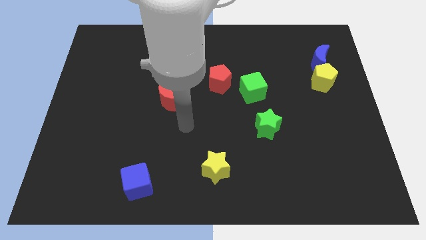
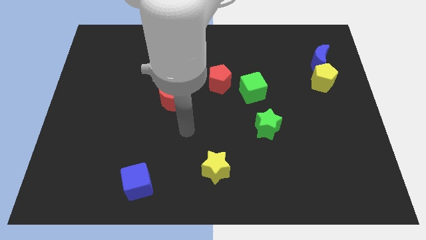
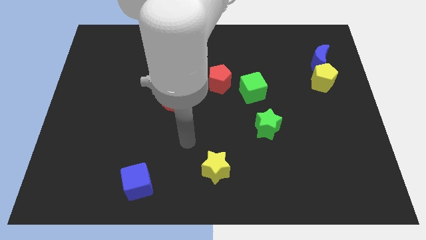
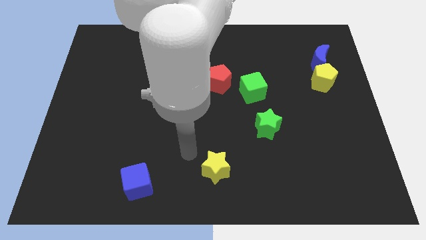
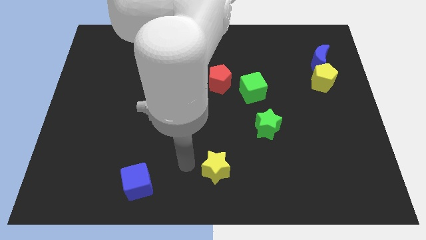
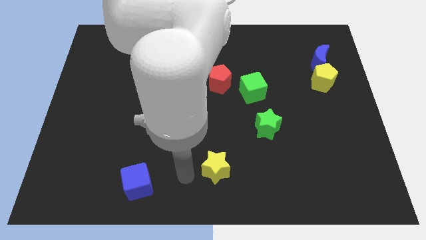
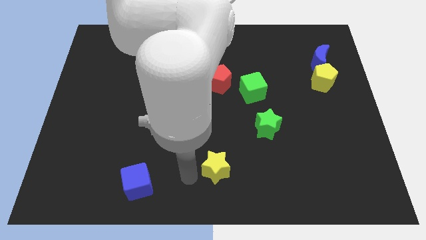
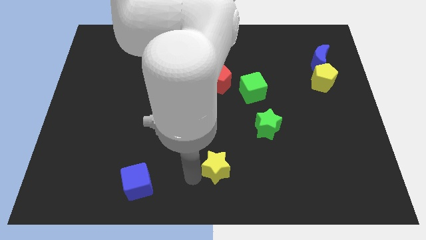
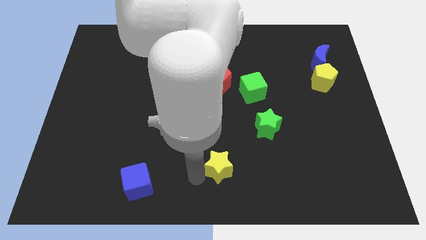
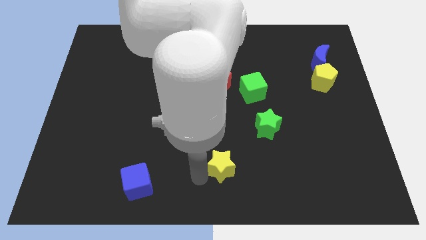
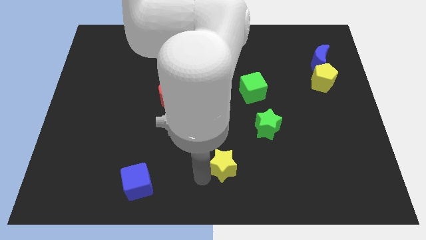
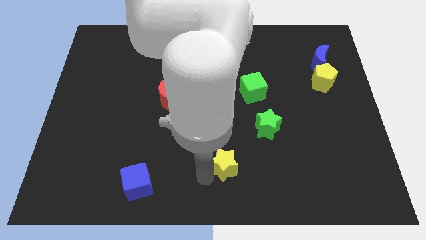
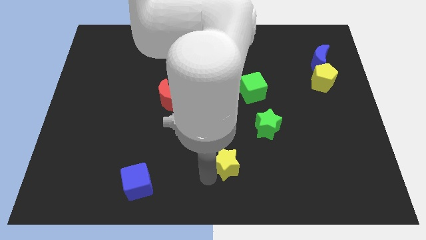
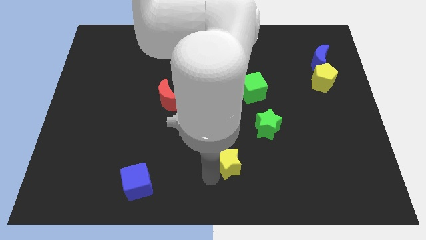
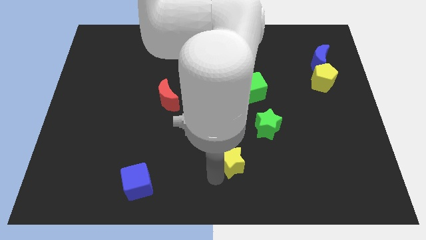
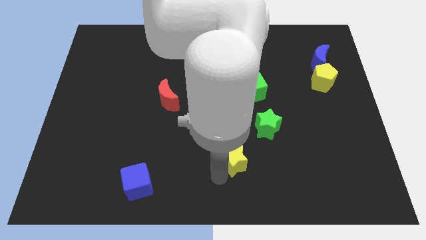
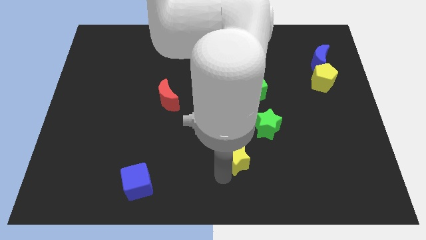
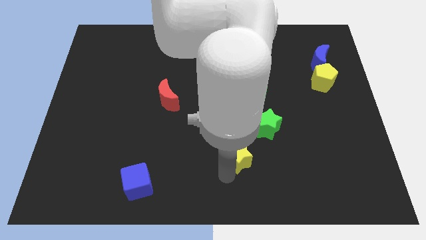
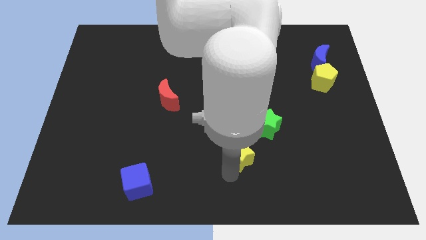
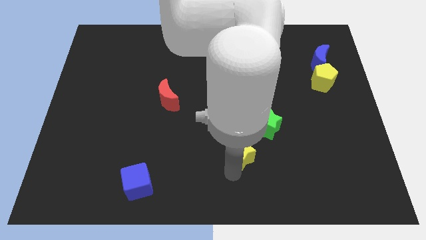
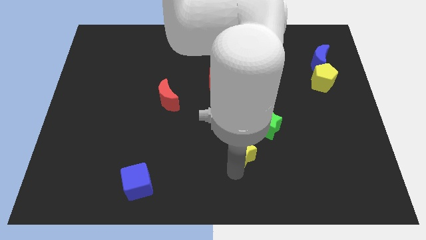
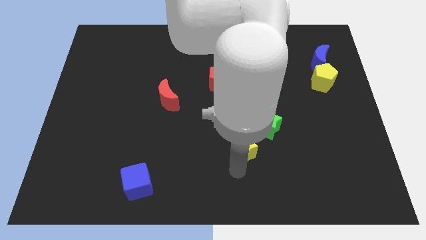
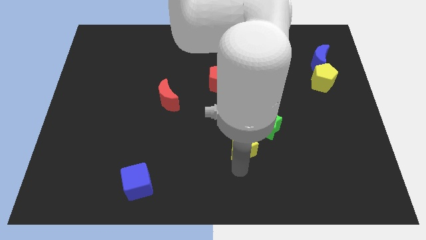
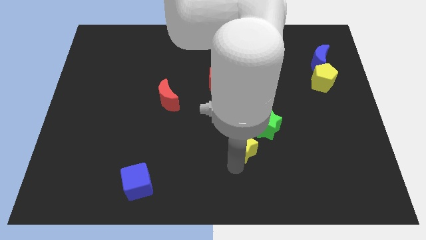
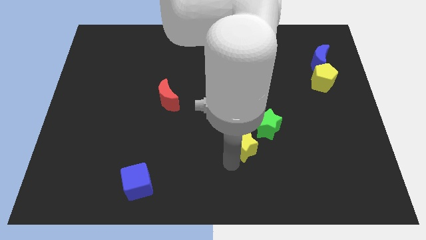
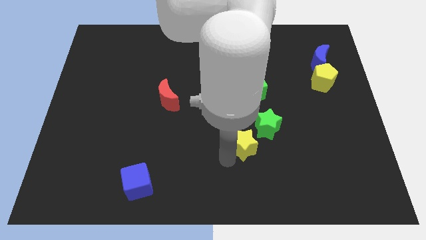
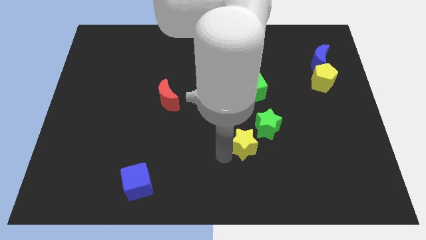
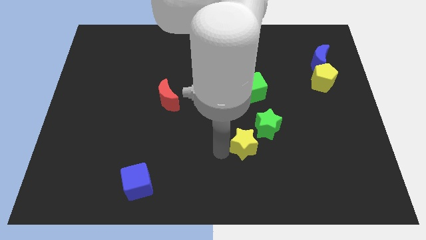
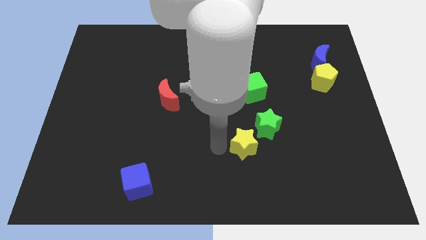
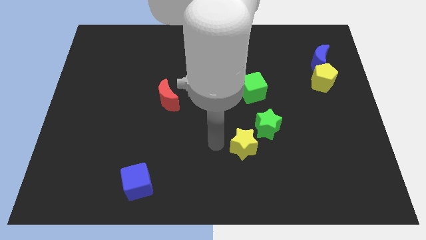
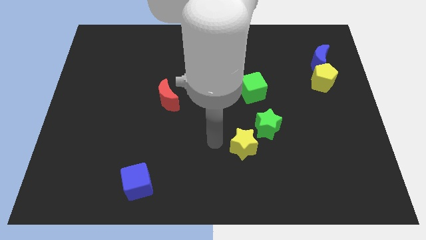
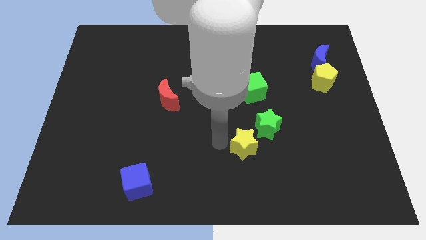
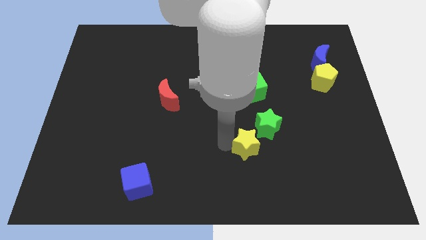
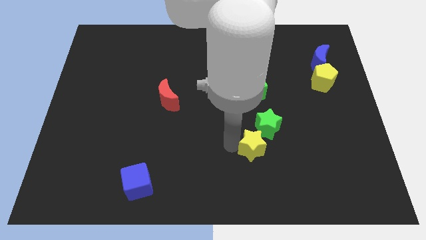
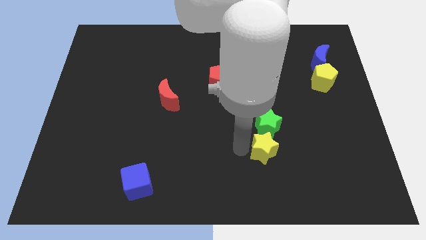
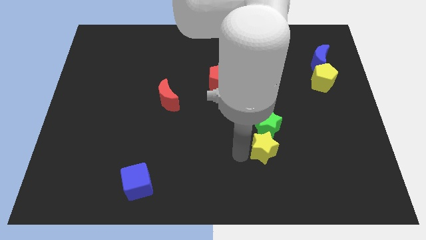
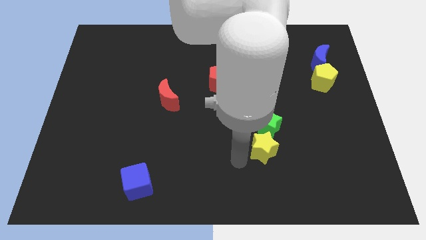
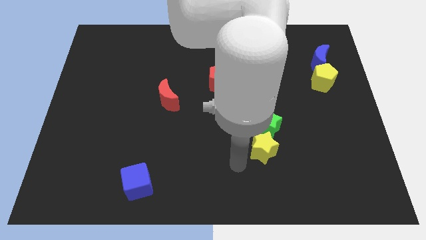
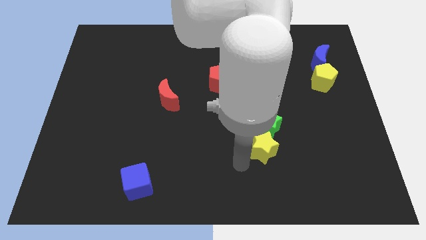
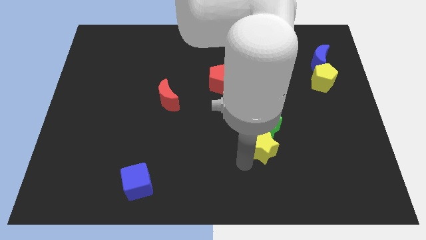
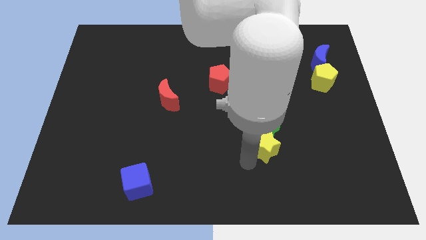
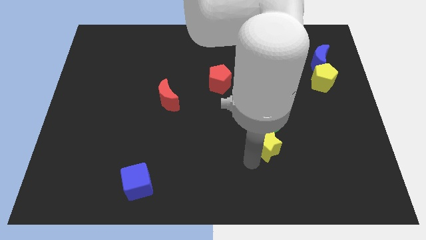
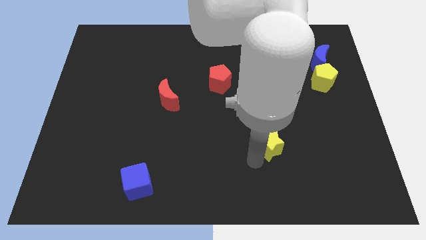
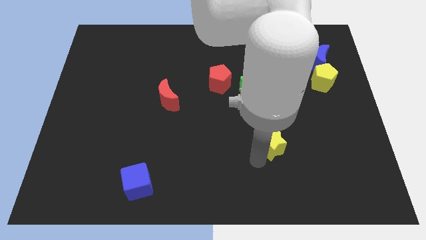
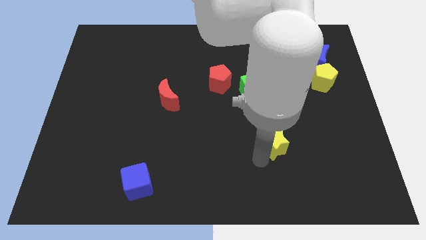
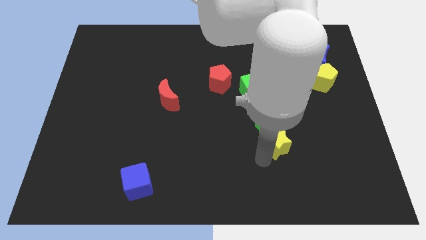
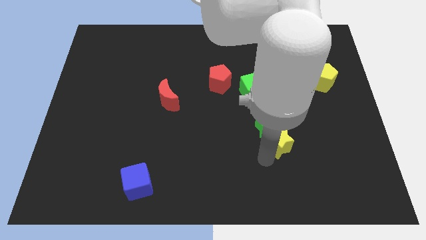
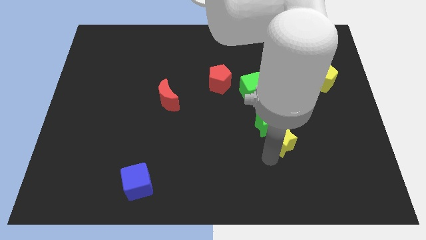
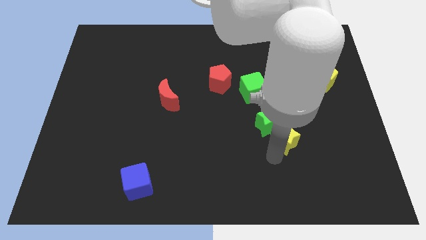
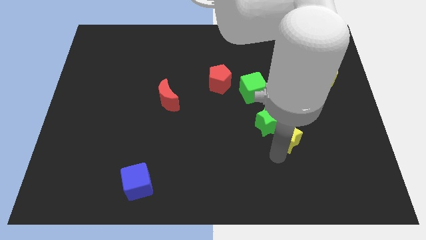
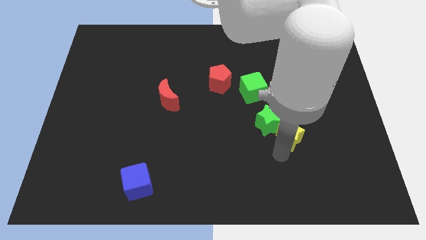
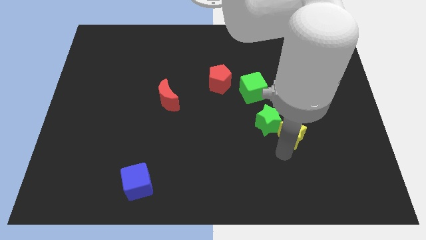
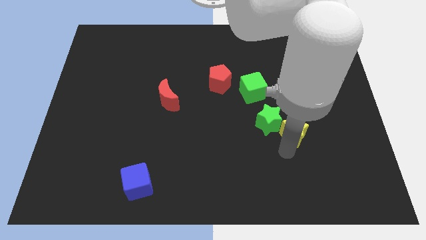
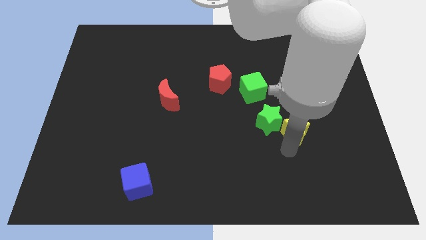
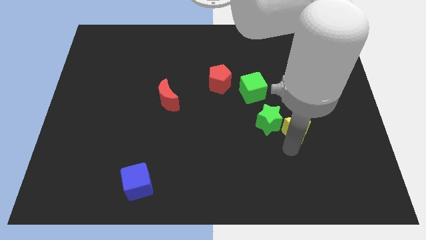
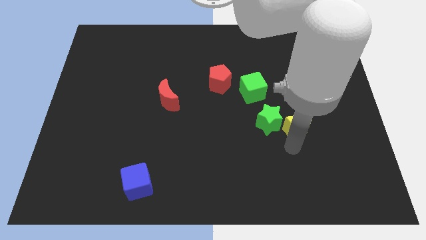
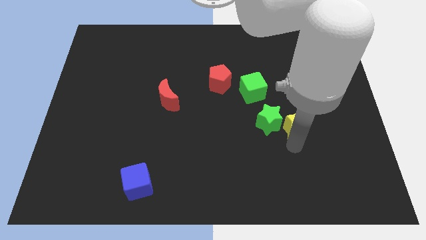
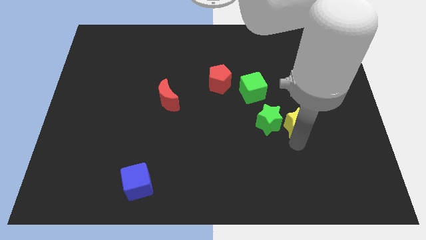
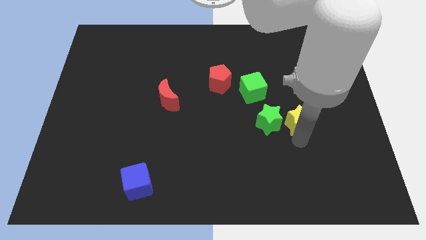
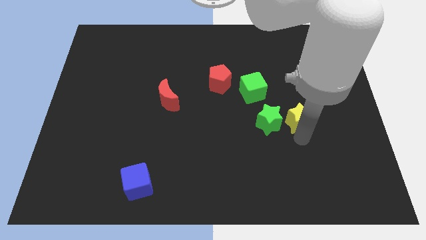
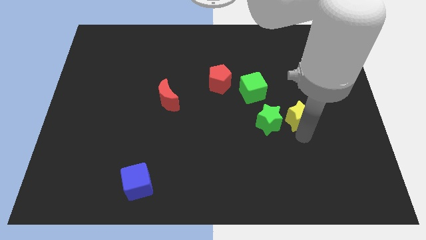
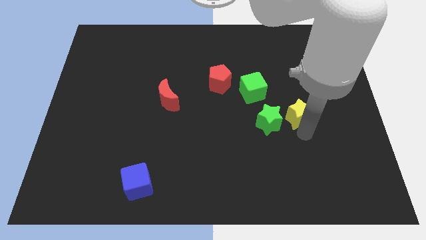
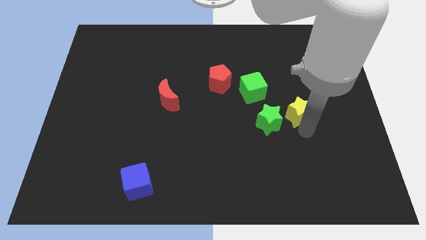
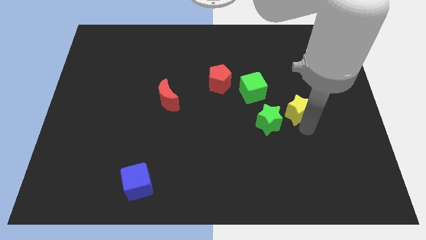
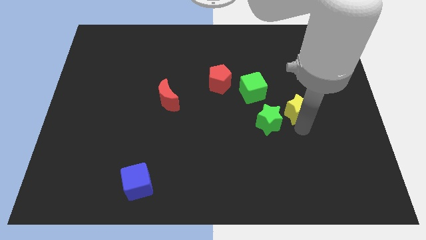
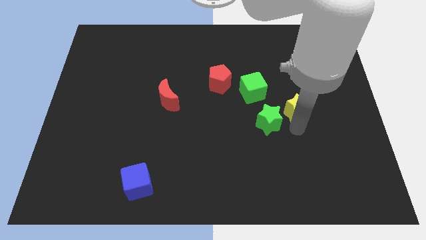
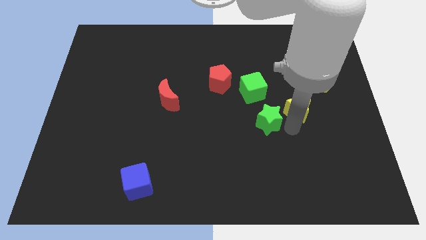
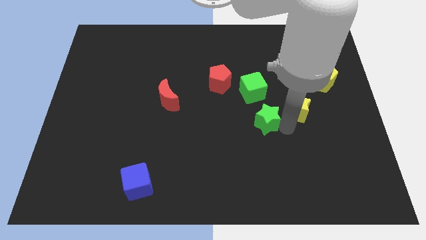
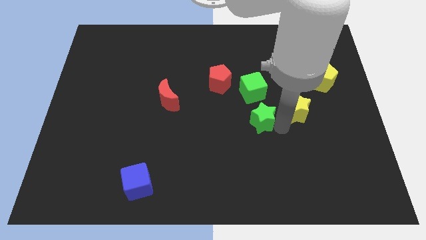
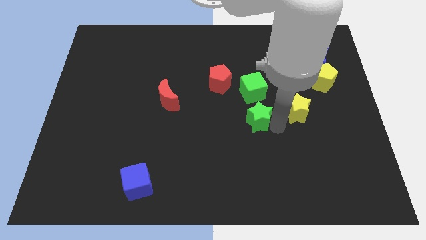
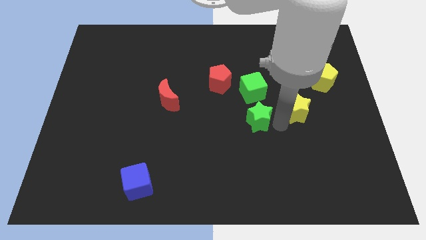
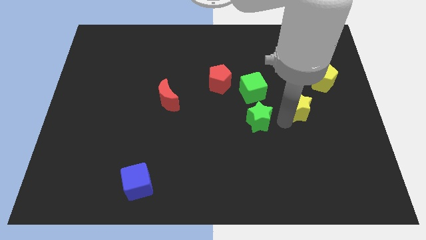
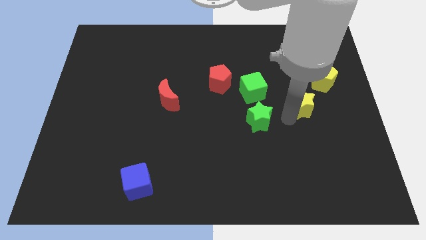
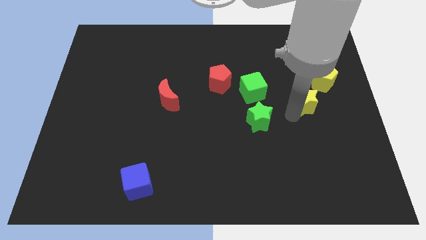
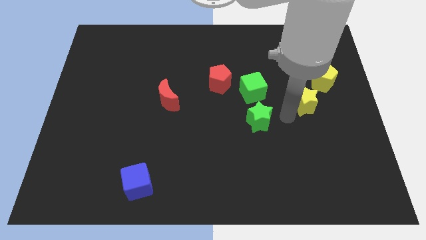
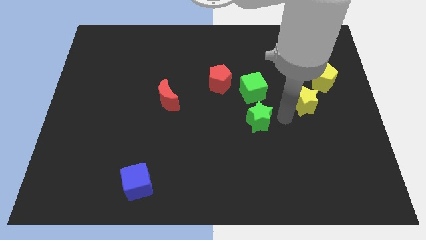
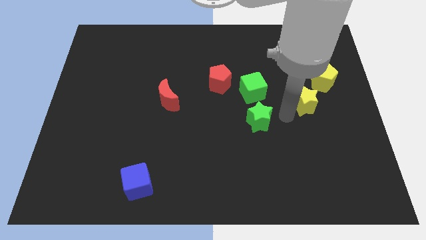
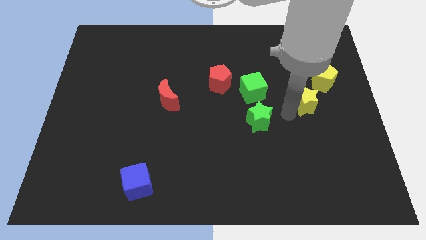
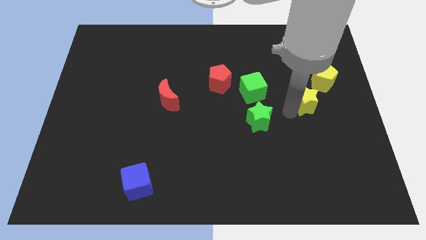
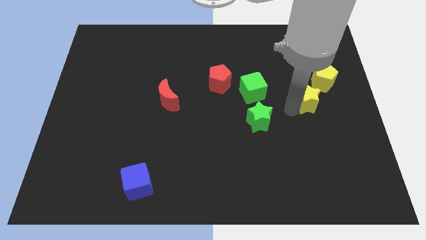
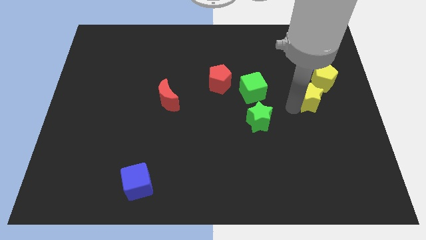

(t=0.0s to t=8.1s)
move the yellow star below the blue moon
